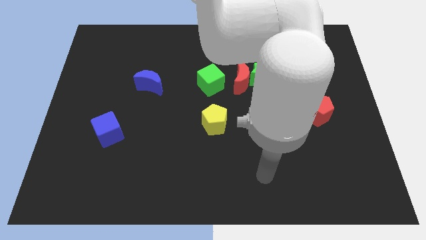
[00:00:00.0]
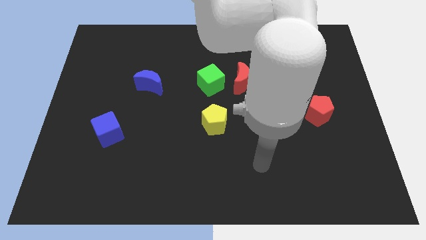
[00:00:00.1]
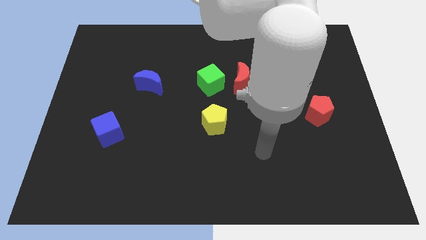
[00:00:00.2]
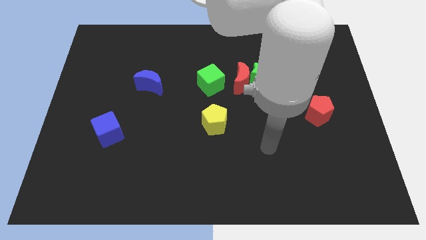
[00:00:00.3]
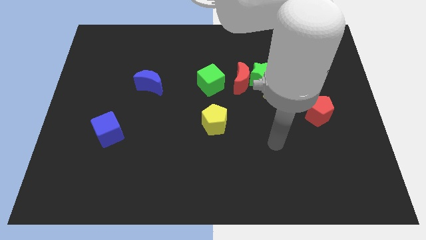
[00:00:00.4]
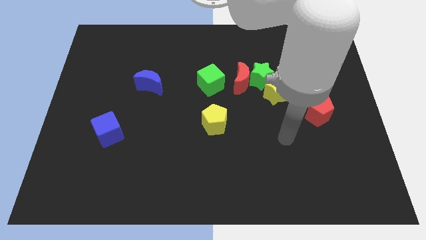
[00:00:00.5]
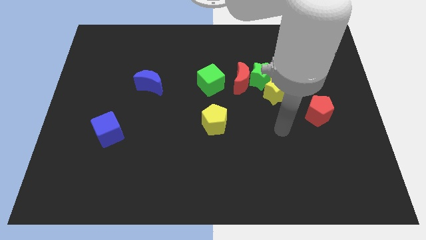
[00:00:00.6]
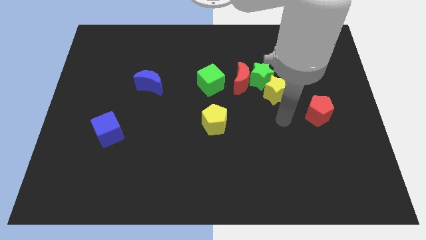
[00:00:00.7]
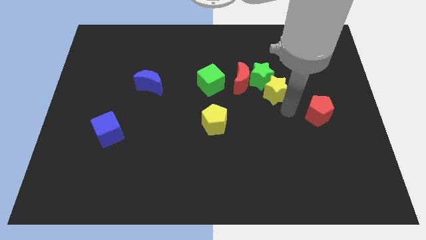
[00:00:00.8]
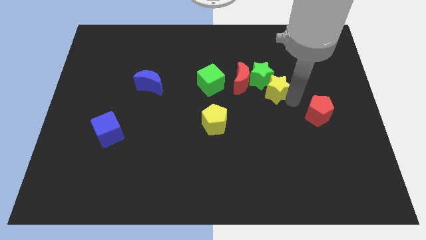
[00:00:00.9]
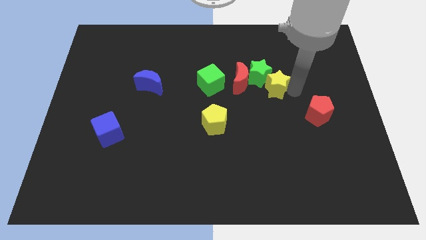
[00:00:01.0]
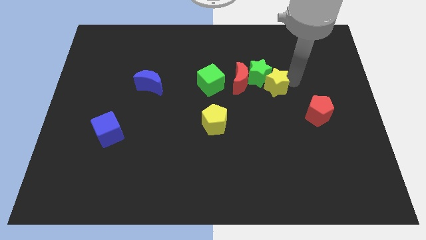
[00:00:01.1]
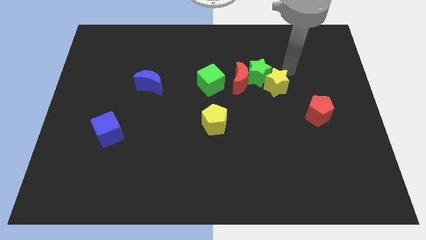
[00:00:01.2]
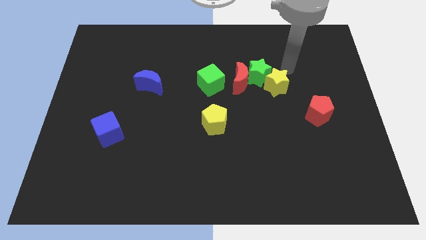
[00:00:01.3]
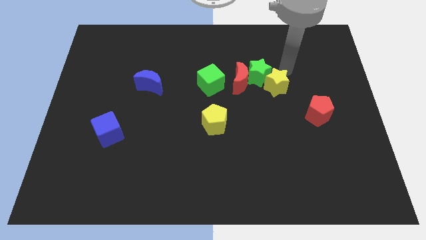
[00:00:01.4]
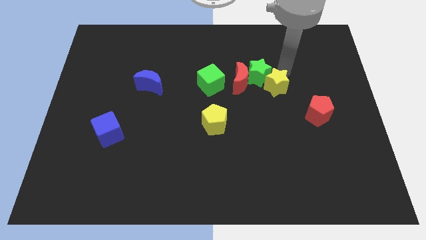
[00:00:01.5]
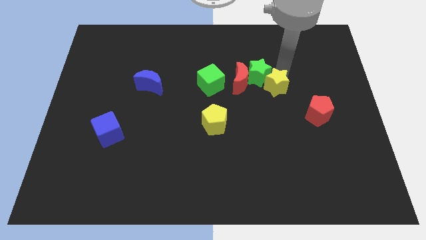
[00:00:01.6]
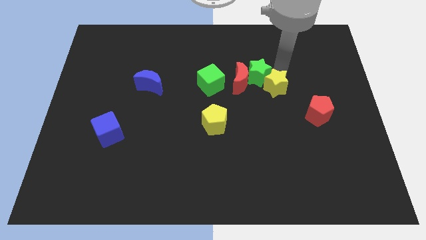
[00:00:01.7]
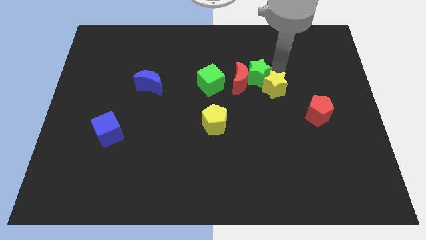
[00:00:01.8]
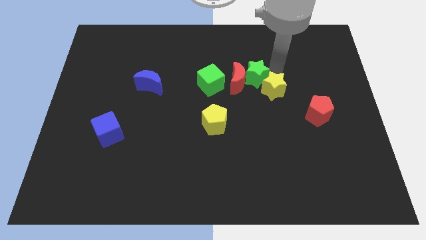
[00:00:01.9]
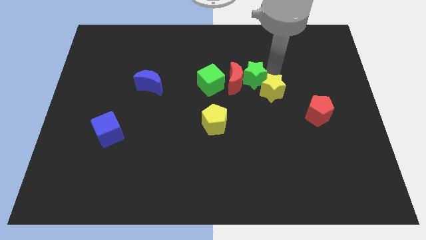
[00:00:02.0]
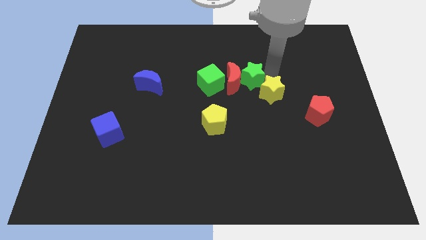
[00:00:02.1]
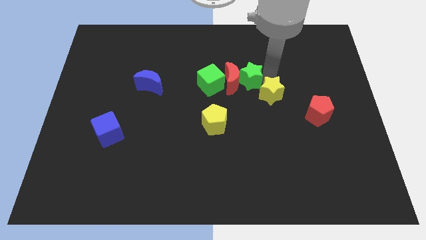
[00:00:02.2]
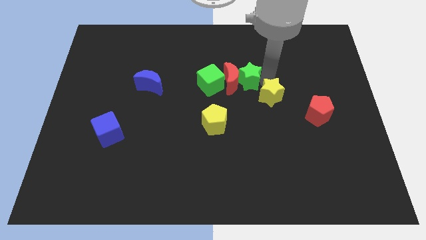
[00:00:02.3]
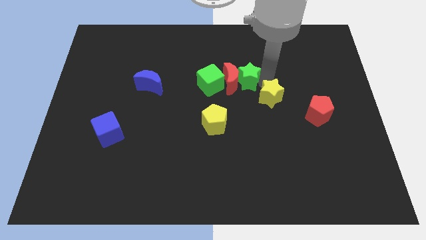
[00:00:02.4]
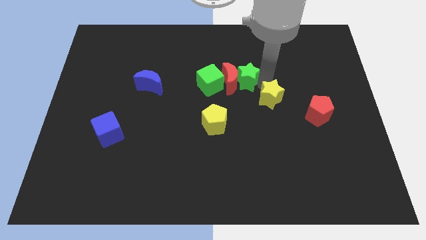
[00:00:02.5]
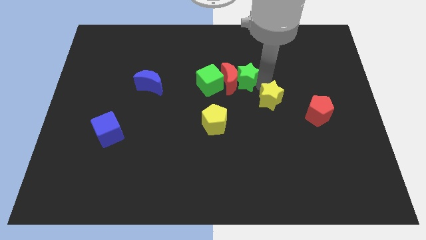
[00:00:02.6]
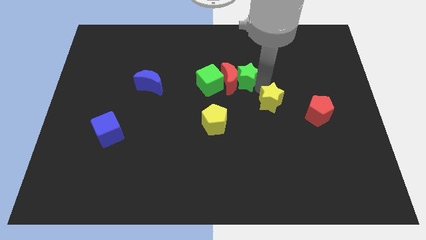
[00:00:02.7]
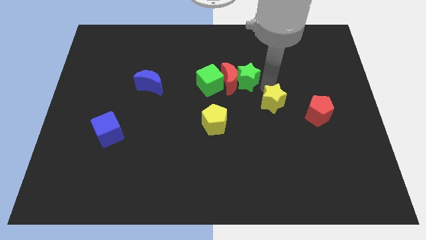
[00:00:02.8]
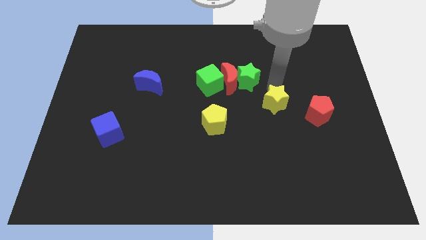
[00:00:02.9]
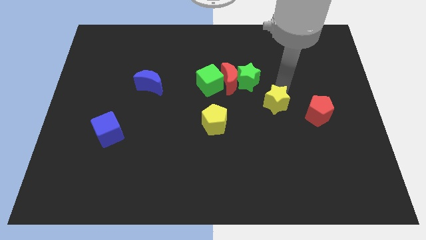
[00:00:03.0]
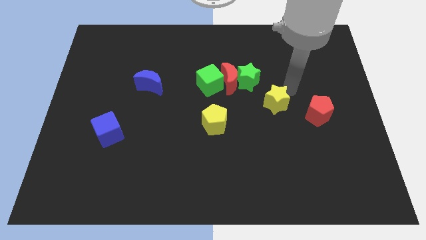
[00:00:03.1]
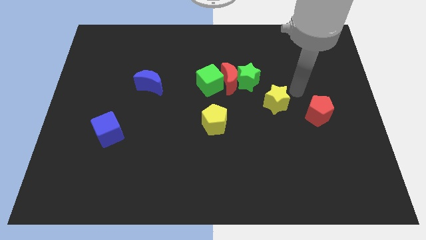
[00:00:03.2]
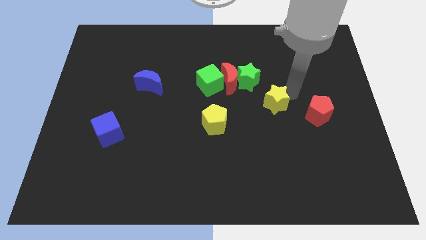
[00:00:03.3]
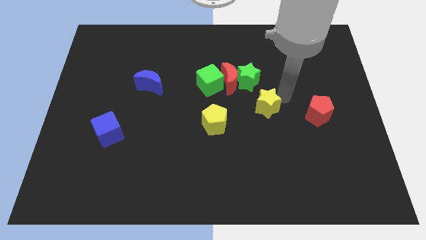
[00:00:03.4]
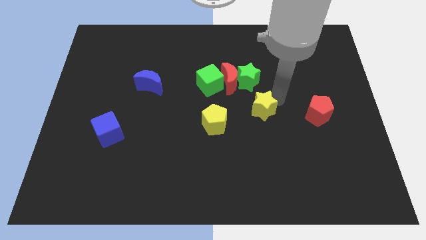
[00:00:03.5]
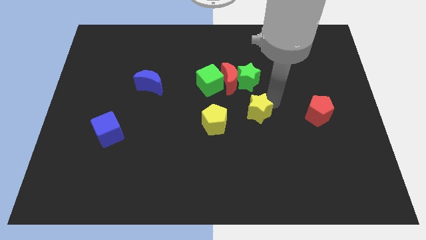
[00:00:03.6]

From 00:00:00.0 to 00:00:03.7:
slightly move the yellow star downwards and left

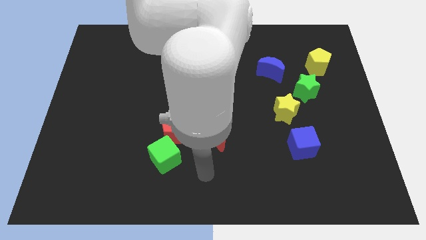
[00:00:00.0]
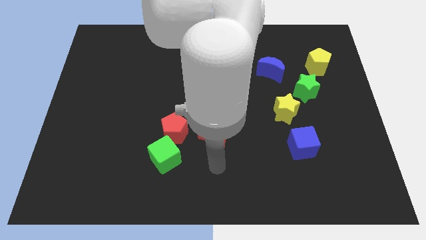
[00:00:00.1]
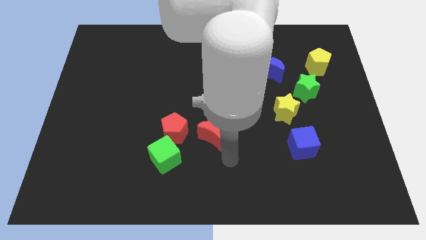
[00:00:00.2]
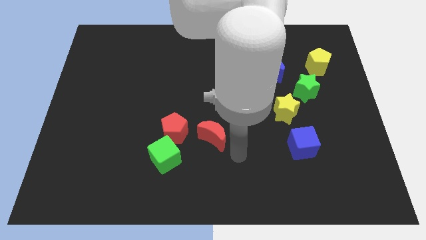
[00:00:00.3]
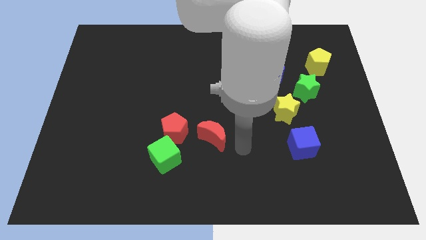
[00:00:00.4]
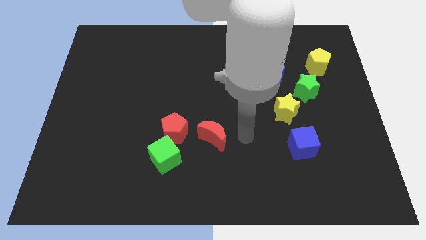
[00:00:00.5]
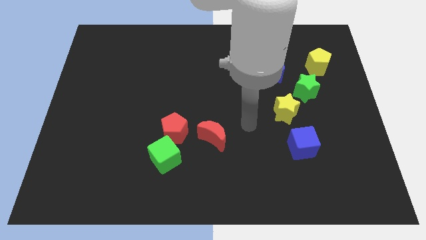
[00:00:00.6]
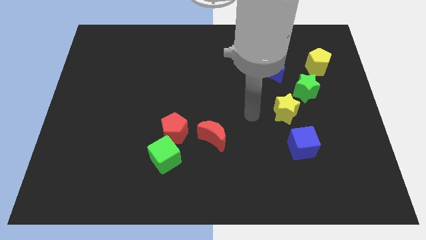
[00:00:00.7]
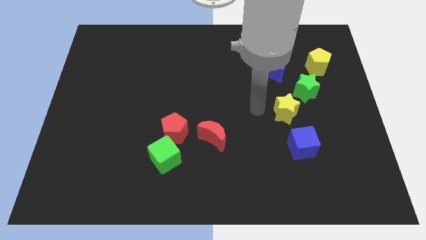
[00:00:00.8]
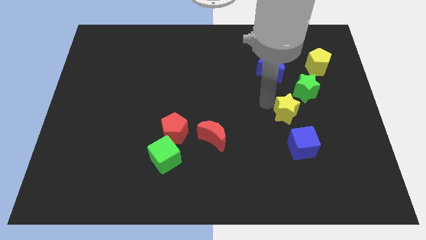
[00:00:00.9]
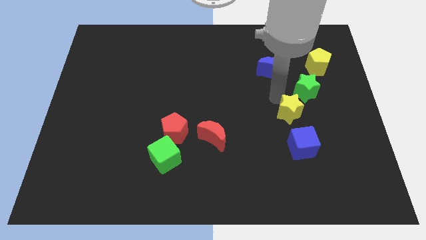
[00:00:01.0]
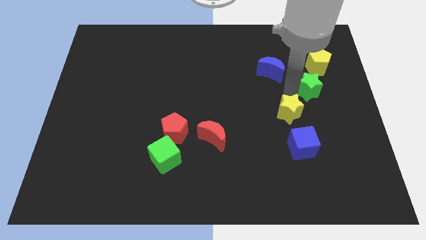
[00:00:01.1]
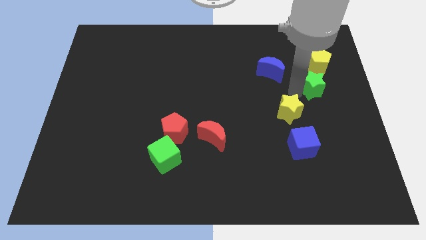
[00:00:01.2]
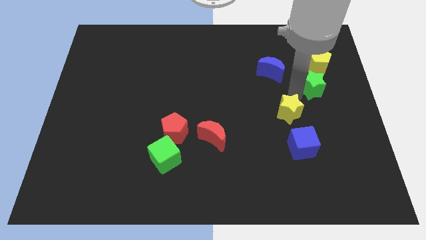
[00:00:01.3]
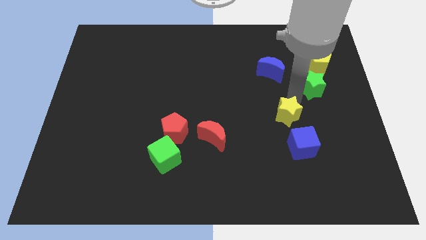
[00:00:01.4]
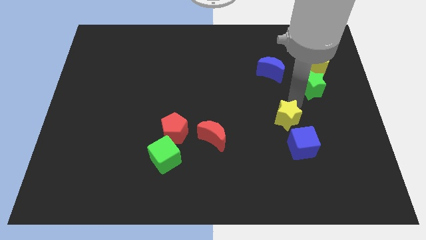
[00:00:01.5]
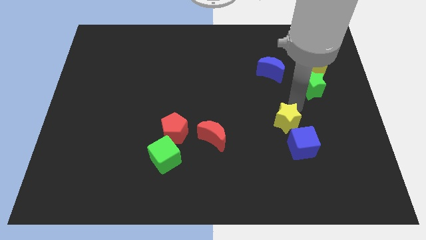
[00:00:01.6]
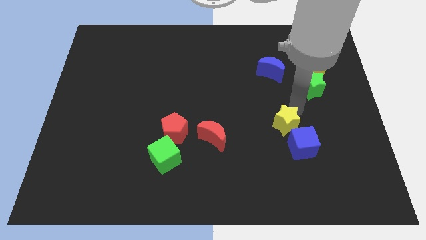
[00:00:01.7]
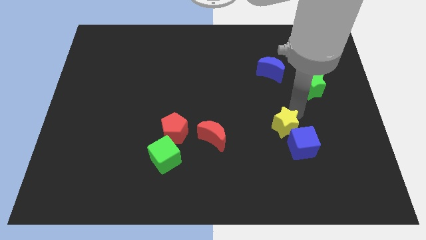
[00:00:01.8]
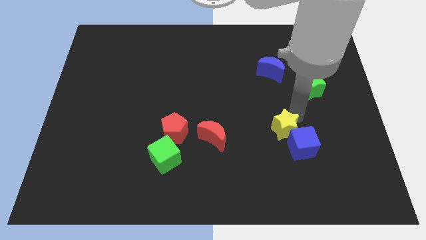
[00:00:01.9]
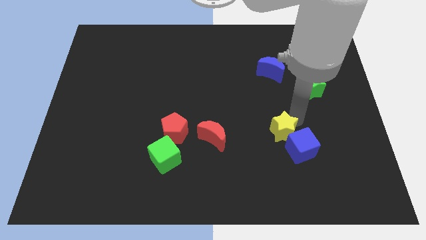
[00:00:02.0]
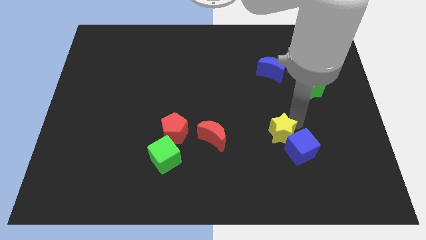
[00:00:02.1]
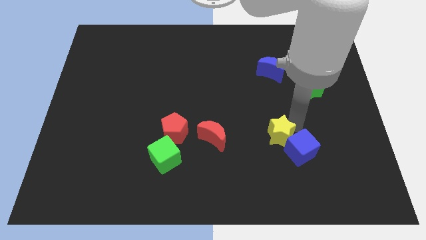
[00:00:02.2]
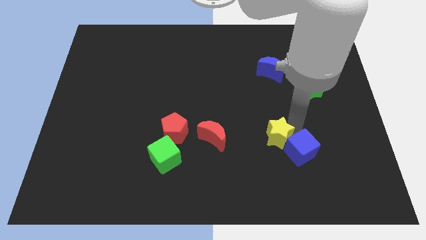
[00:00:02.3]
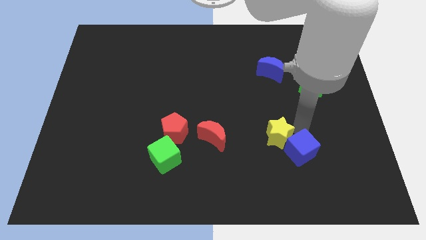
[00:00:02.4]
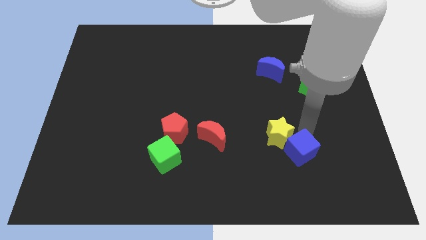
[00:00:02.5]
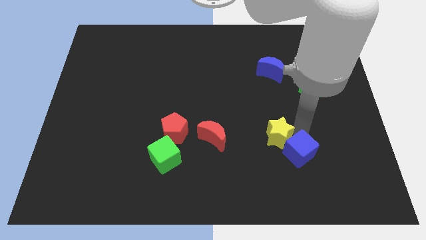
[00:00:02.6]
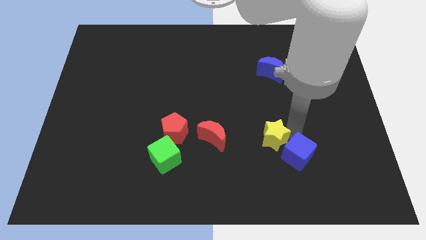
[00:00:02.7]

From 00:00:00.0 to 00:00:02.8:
slide the yellow star down and to the left a little bit

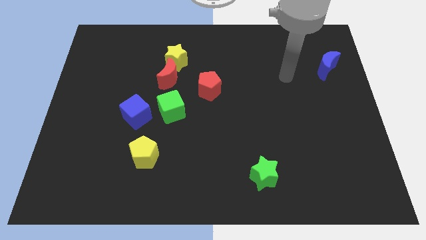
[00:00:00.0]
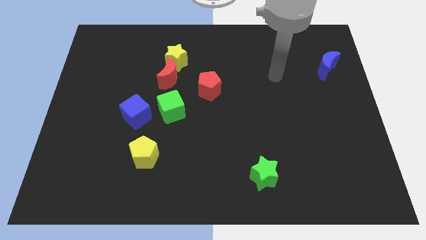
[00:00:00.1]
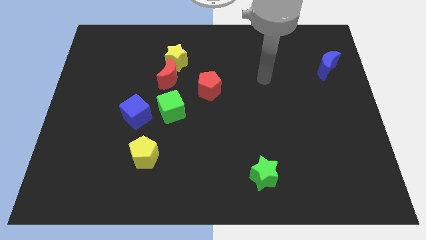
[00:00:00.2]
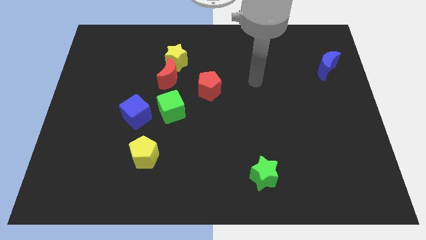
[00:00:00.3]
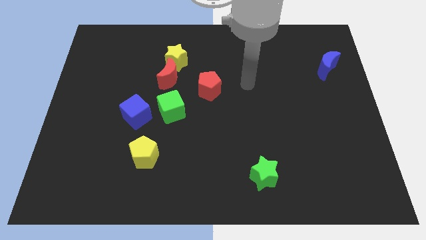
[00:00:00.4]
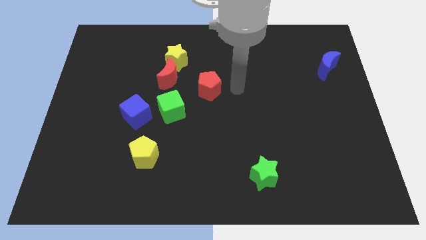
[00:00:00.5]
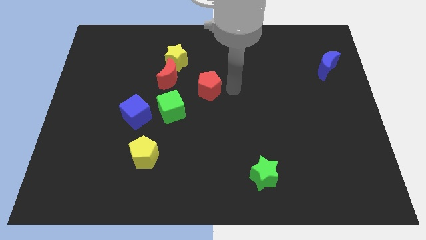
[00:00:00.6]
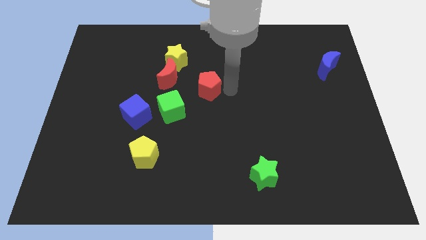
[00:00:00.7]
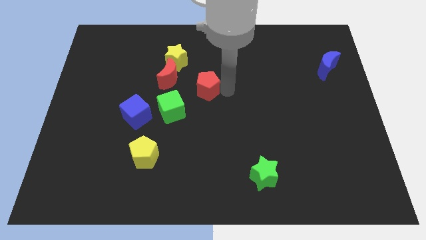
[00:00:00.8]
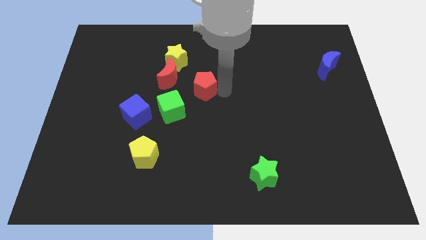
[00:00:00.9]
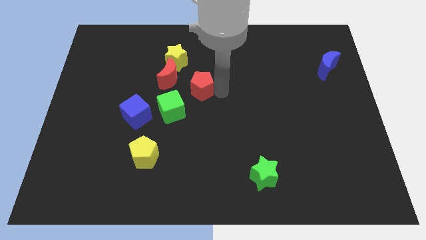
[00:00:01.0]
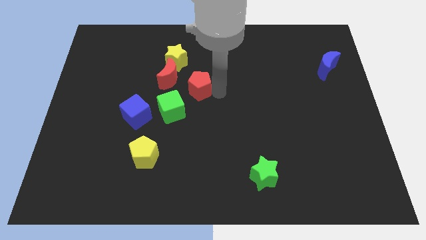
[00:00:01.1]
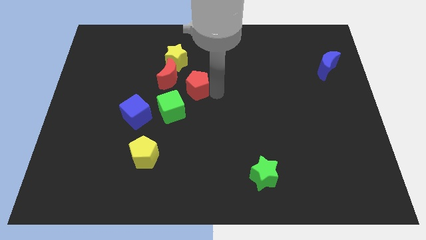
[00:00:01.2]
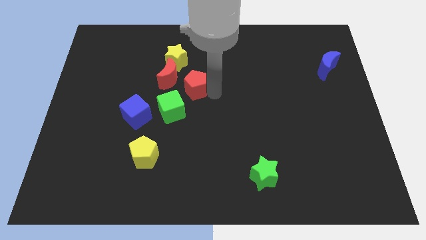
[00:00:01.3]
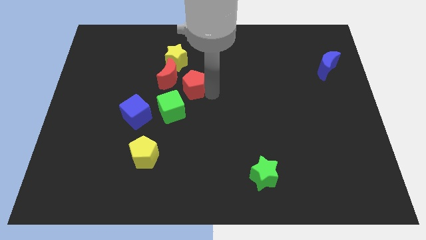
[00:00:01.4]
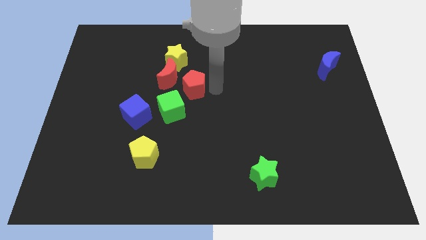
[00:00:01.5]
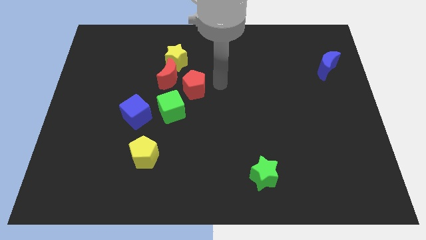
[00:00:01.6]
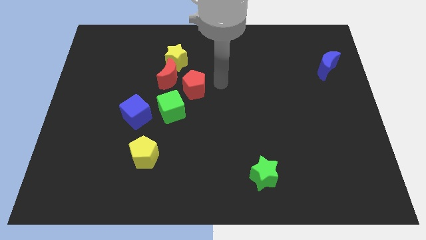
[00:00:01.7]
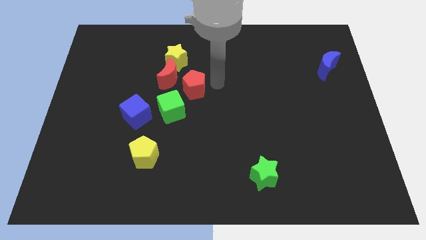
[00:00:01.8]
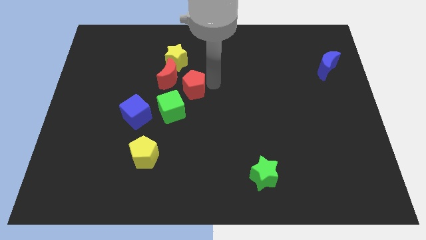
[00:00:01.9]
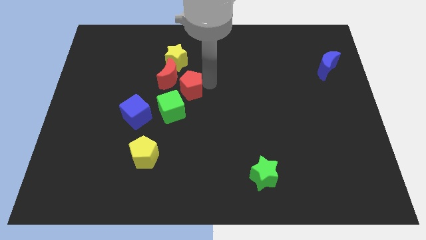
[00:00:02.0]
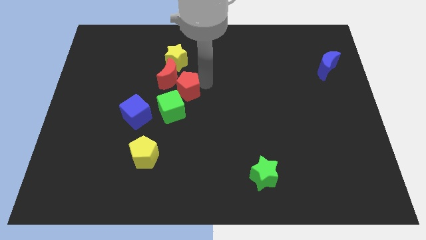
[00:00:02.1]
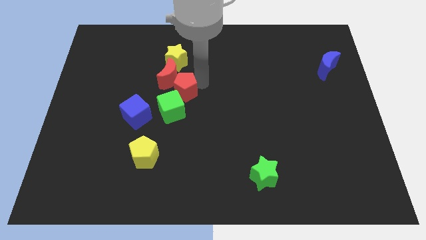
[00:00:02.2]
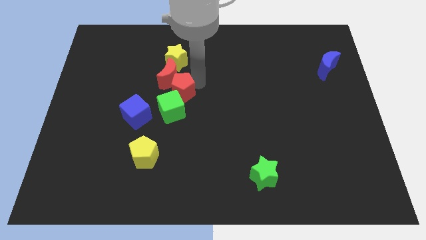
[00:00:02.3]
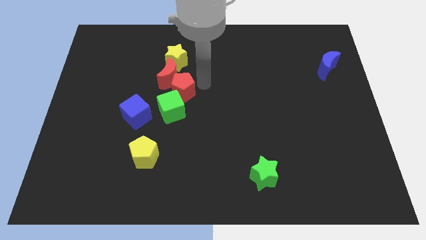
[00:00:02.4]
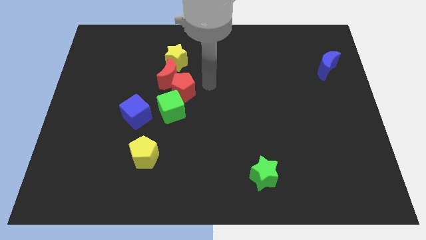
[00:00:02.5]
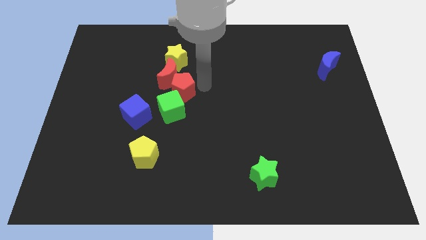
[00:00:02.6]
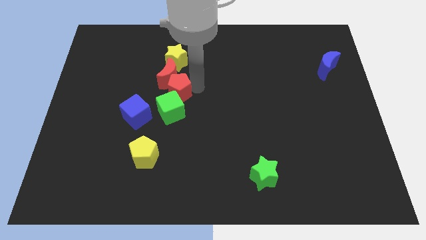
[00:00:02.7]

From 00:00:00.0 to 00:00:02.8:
slide the red pentagon somewhat to the left
